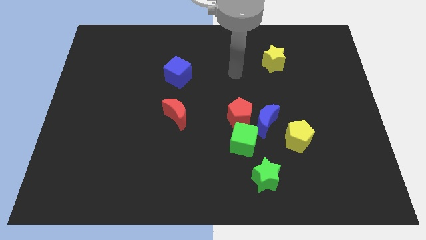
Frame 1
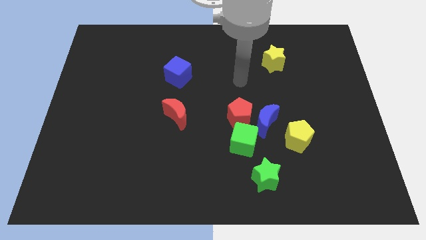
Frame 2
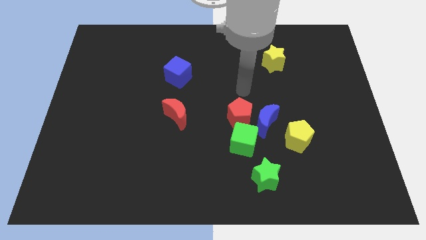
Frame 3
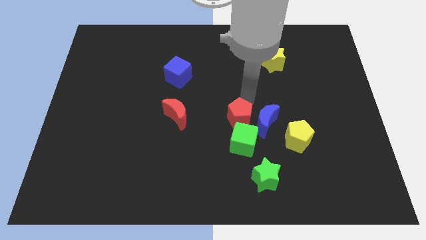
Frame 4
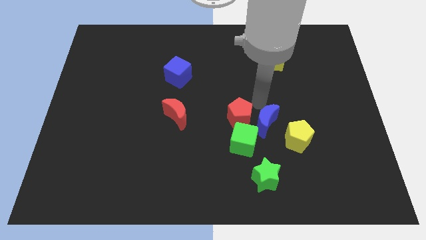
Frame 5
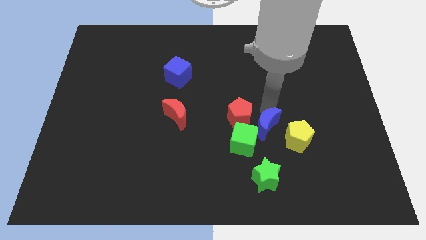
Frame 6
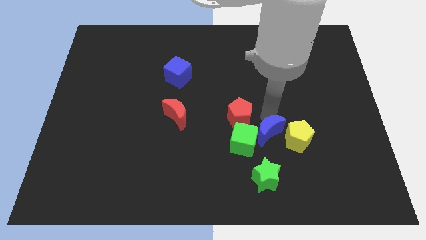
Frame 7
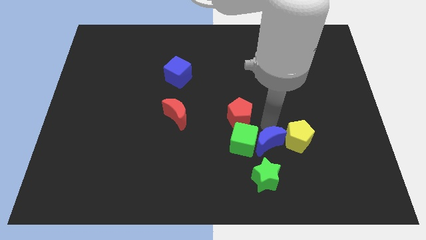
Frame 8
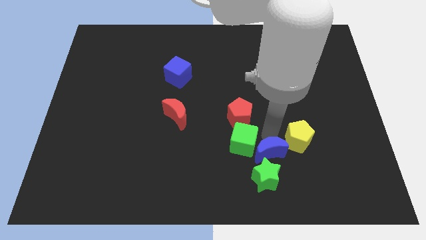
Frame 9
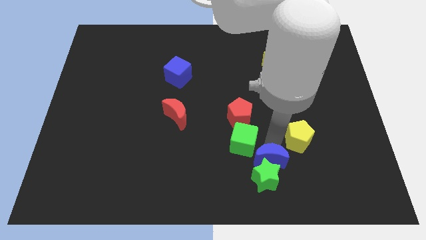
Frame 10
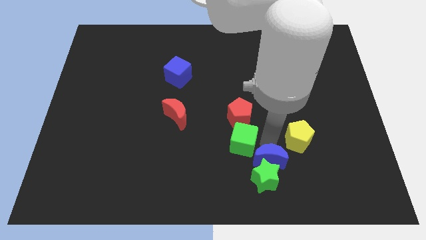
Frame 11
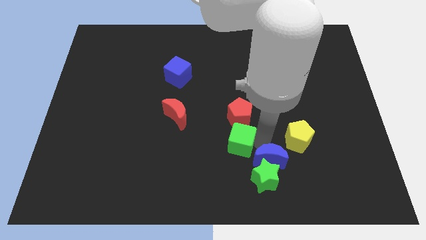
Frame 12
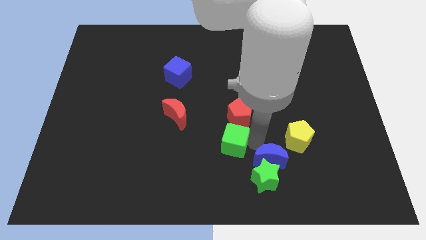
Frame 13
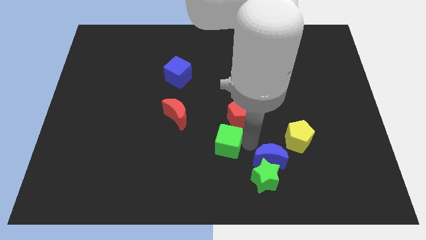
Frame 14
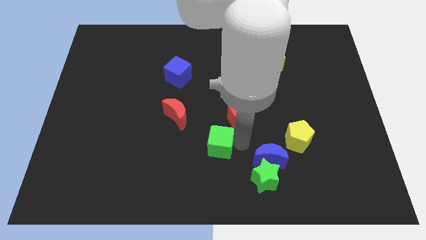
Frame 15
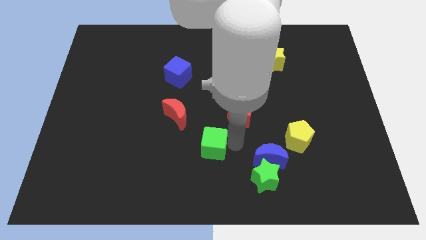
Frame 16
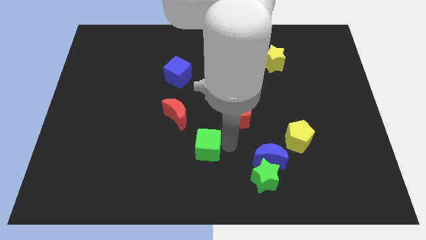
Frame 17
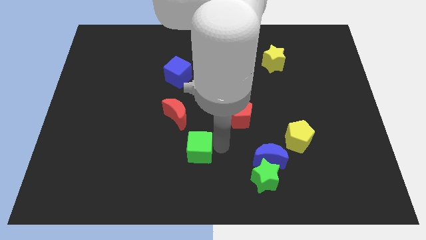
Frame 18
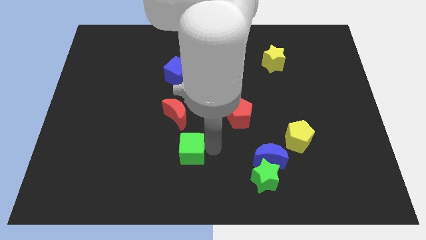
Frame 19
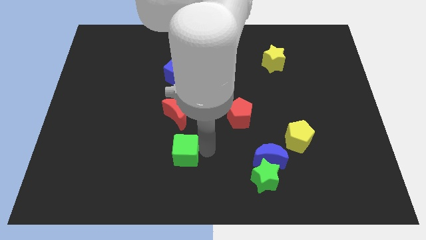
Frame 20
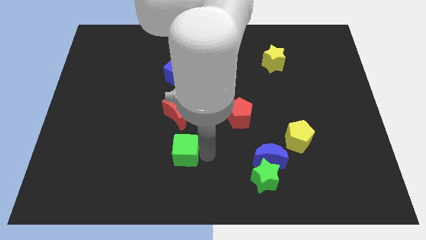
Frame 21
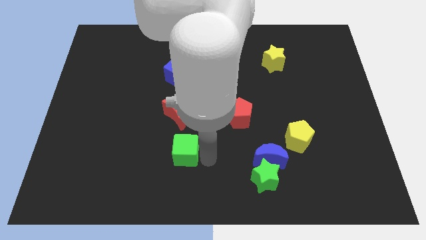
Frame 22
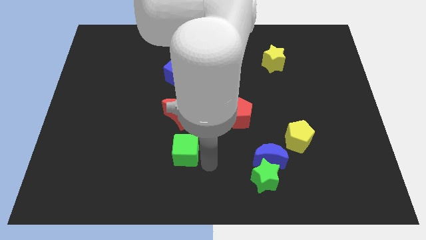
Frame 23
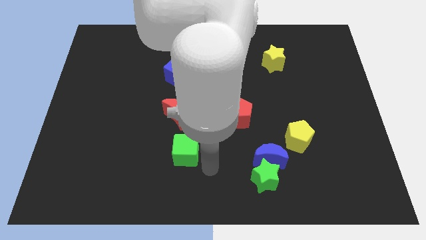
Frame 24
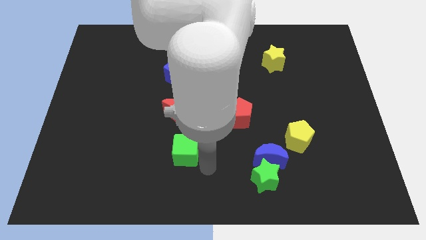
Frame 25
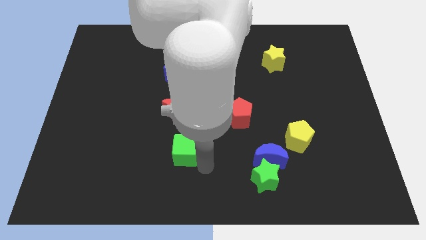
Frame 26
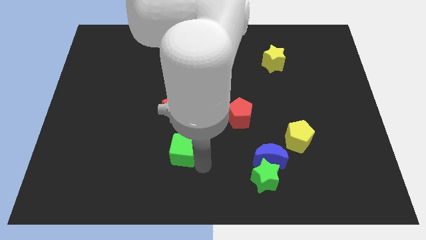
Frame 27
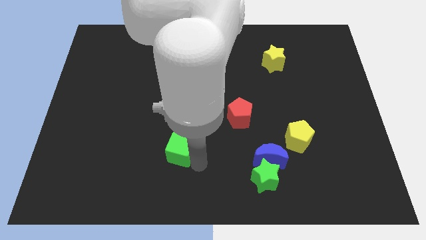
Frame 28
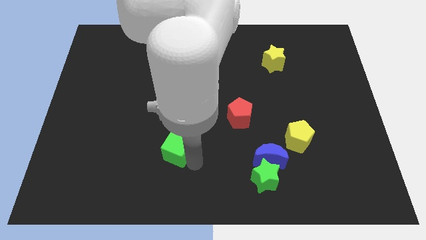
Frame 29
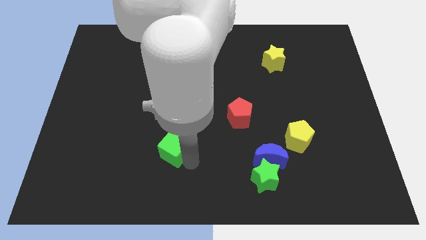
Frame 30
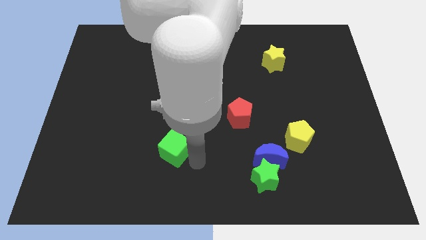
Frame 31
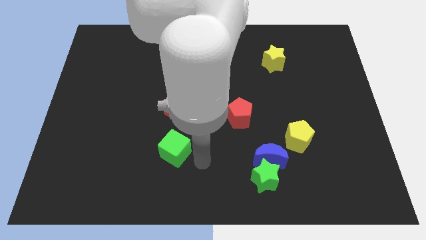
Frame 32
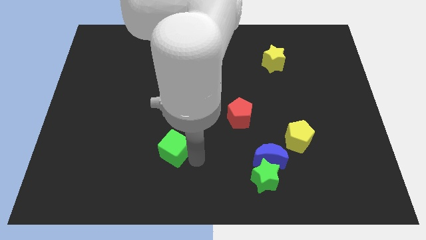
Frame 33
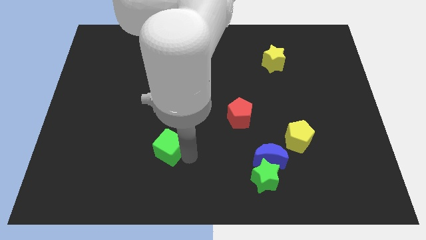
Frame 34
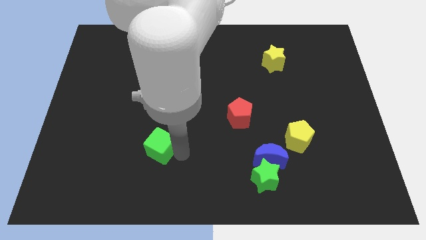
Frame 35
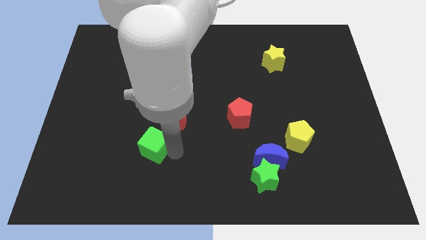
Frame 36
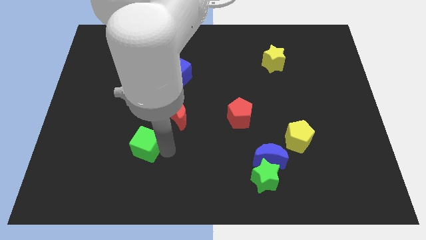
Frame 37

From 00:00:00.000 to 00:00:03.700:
move the green cube to the left

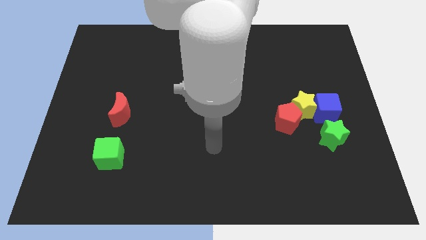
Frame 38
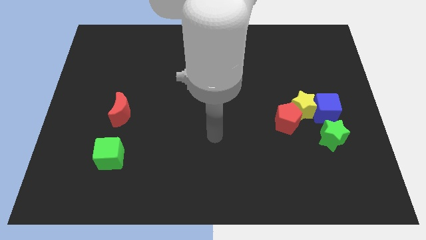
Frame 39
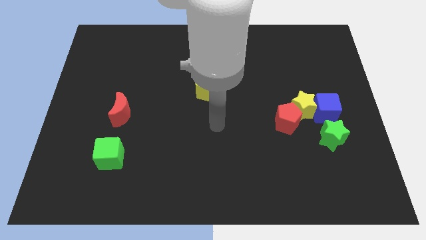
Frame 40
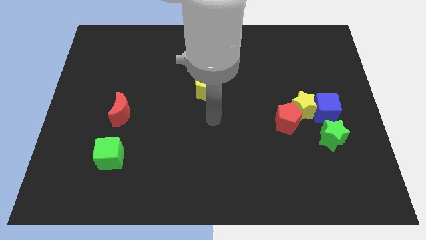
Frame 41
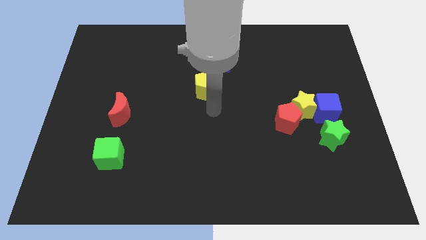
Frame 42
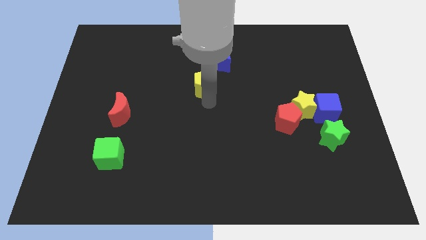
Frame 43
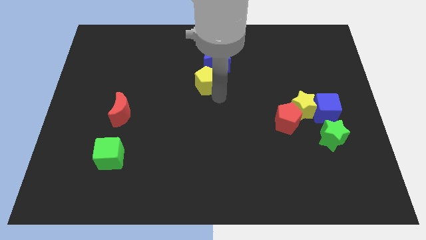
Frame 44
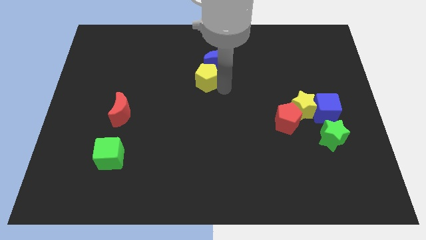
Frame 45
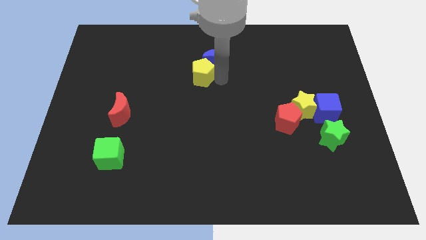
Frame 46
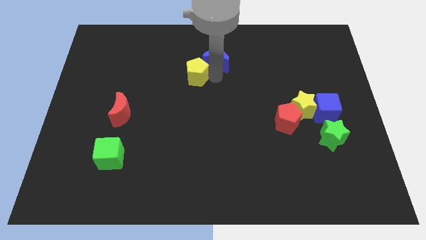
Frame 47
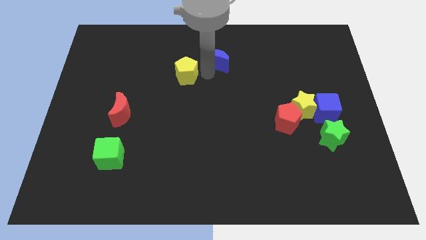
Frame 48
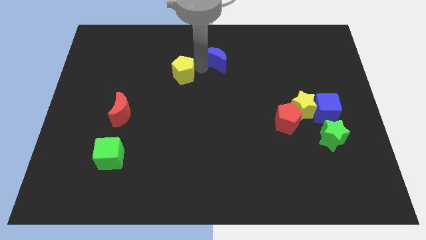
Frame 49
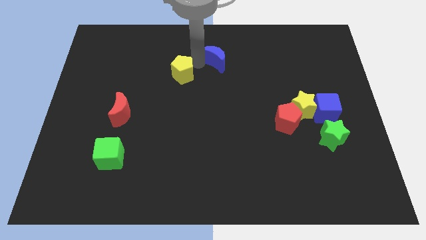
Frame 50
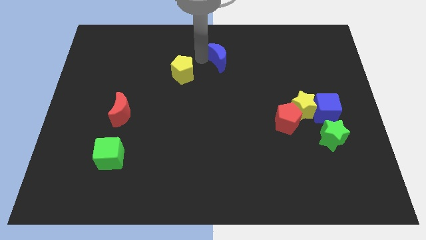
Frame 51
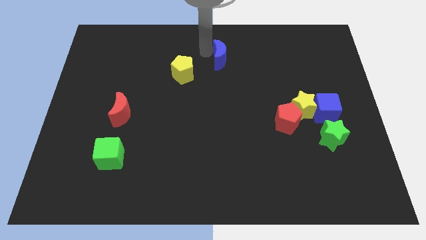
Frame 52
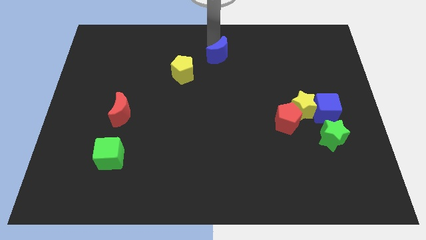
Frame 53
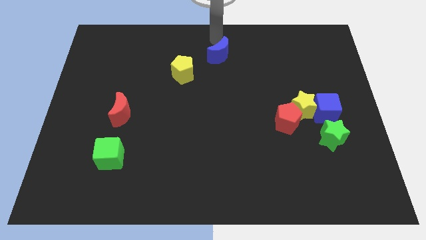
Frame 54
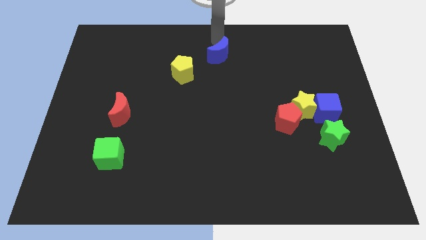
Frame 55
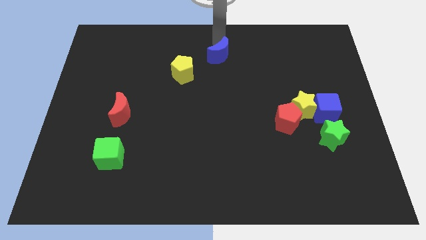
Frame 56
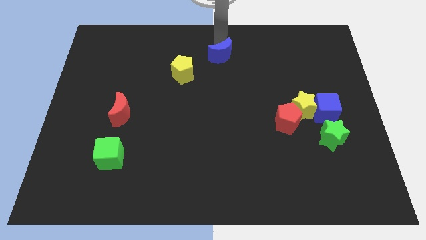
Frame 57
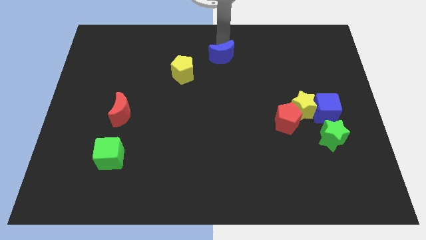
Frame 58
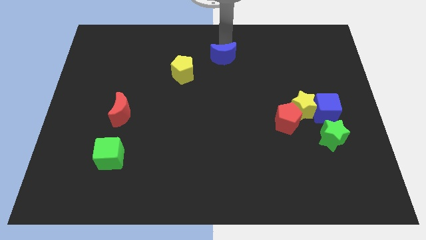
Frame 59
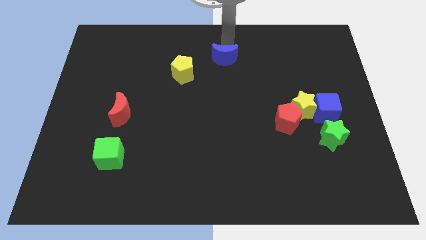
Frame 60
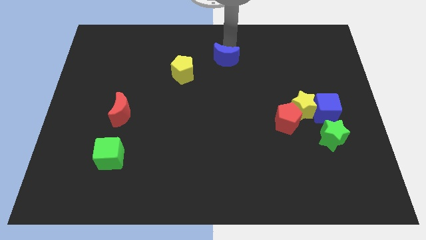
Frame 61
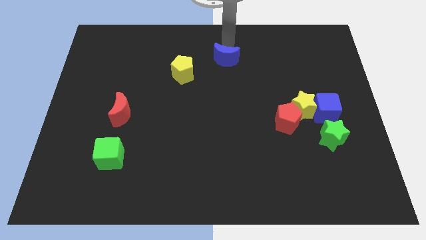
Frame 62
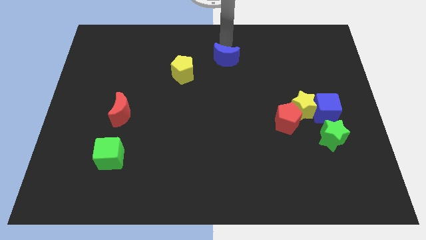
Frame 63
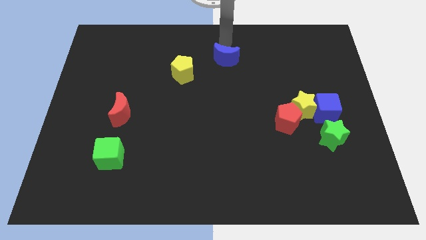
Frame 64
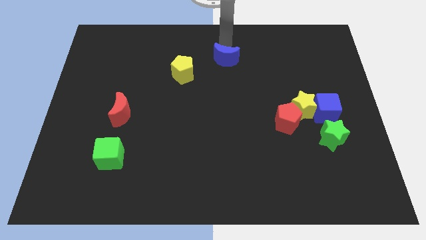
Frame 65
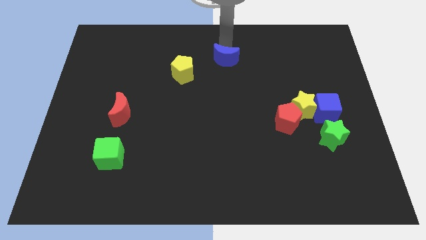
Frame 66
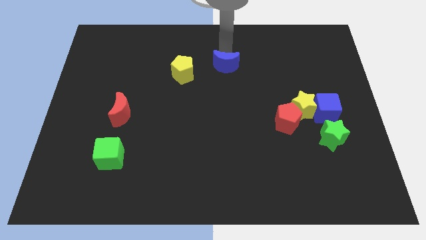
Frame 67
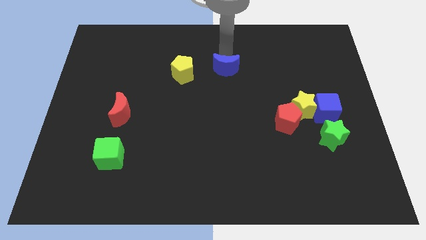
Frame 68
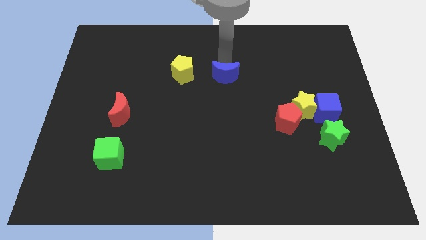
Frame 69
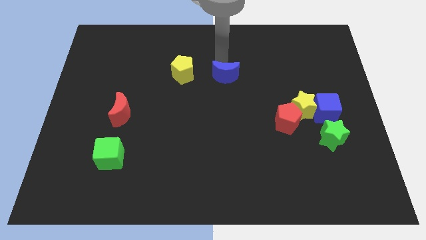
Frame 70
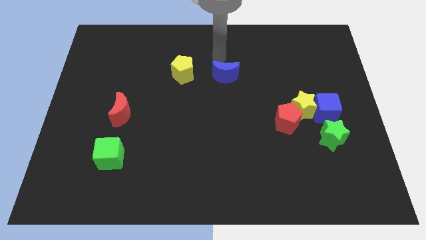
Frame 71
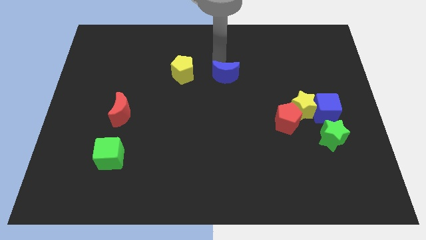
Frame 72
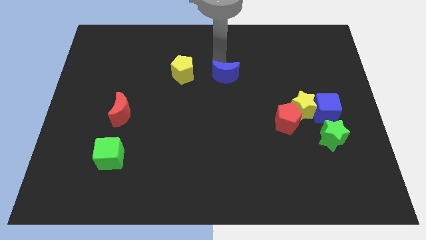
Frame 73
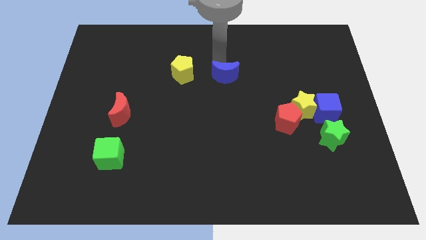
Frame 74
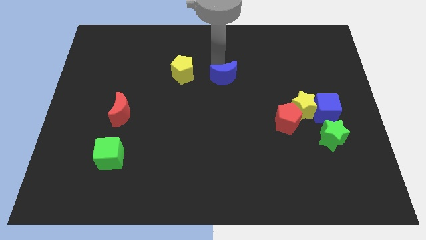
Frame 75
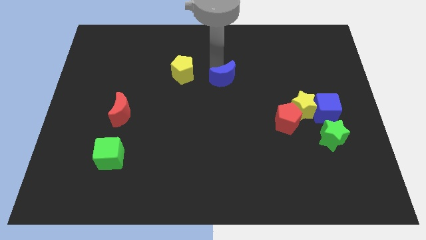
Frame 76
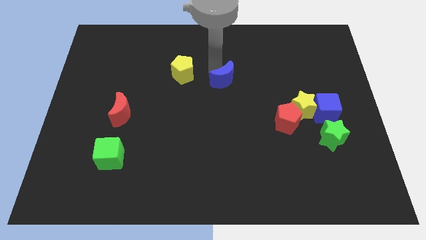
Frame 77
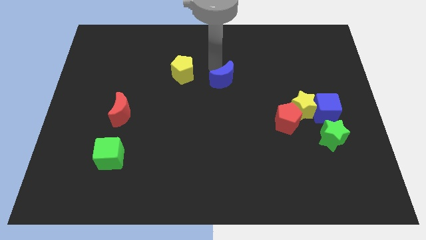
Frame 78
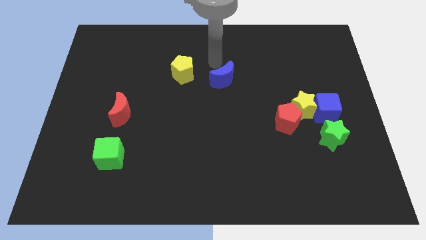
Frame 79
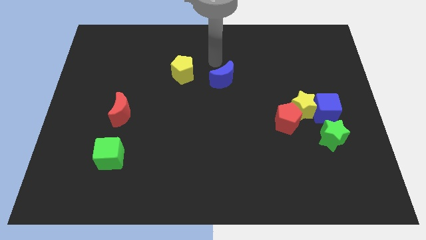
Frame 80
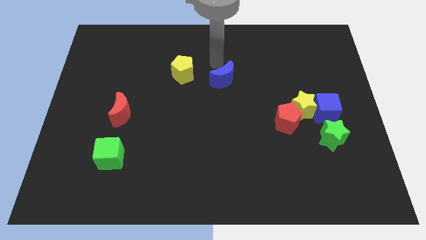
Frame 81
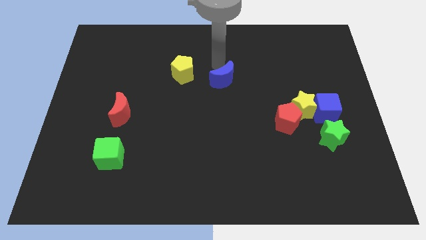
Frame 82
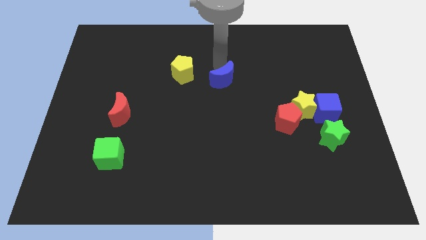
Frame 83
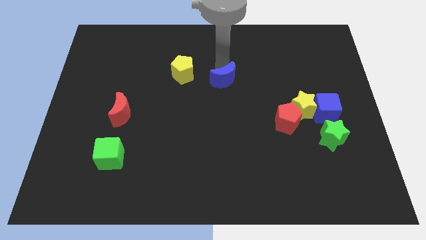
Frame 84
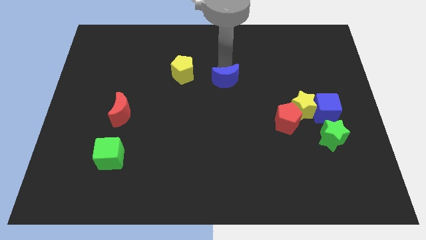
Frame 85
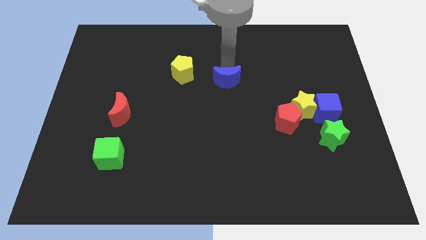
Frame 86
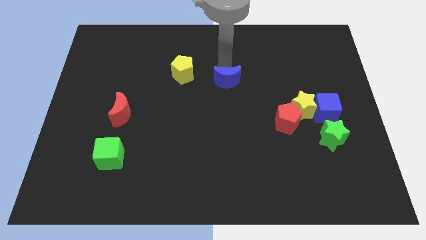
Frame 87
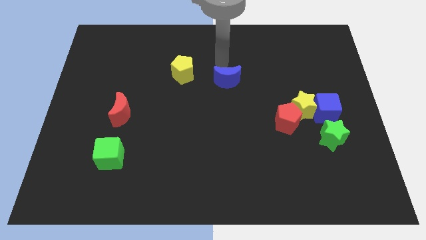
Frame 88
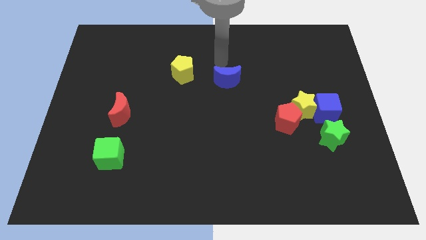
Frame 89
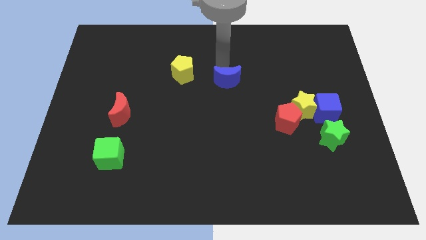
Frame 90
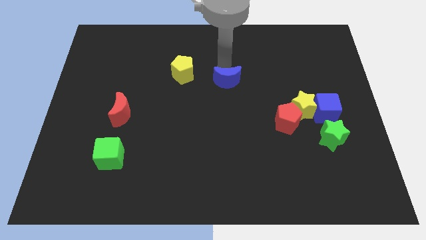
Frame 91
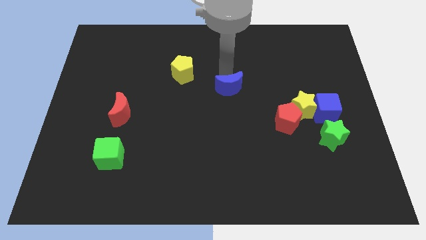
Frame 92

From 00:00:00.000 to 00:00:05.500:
slide the blue moon down slightly
